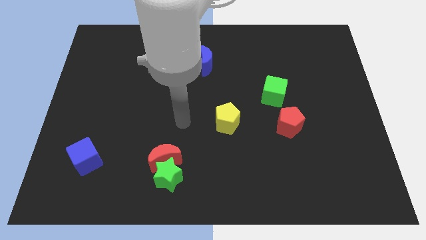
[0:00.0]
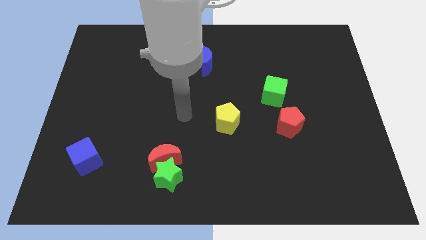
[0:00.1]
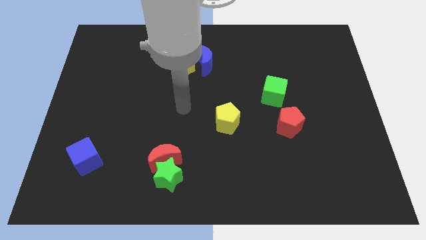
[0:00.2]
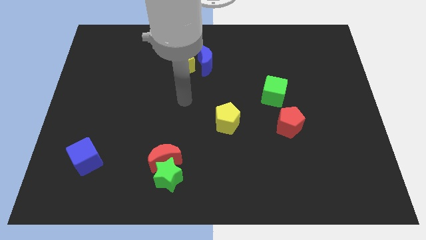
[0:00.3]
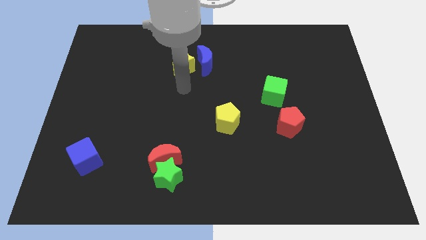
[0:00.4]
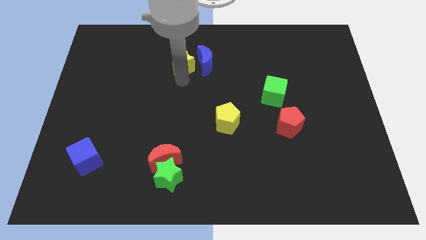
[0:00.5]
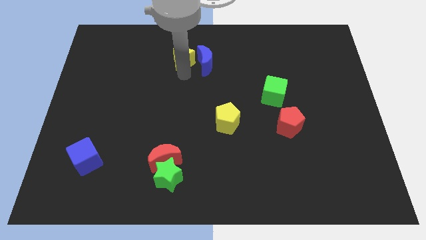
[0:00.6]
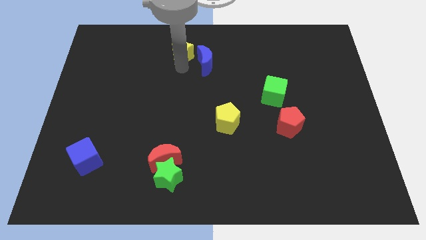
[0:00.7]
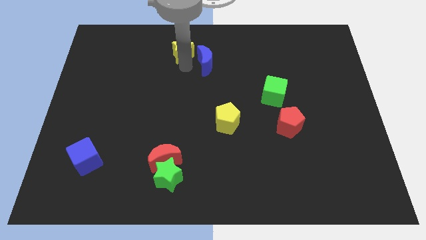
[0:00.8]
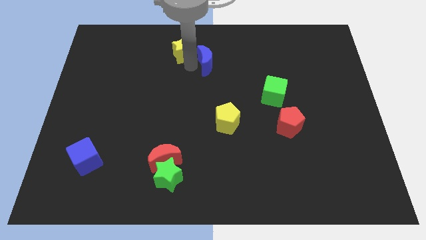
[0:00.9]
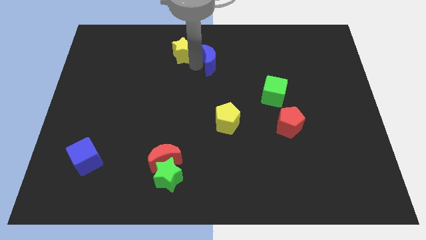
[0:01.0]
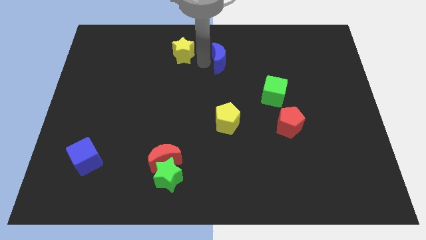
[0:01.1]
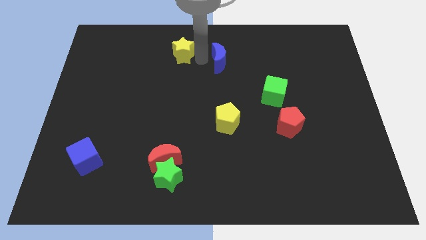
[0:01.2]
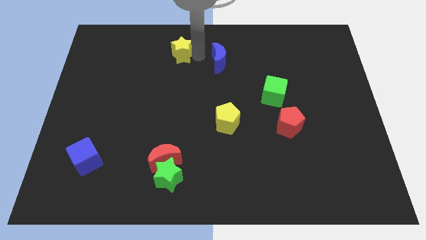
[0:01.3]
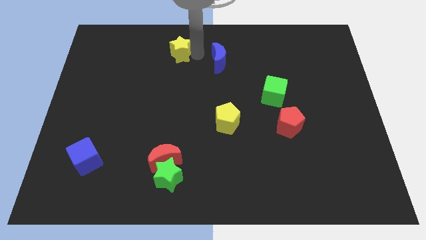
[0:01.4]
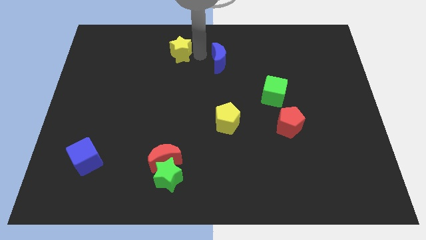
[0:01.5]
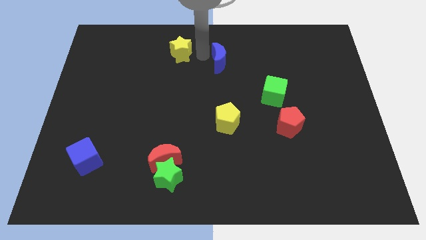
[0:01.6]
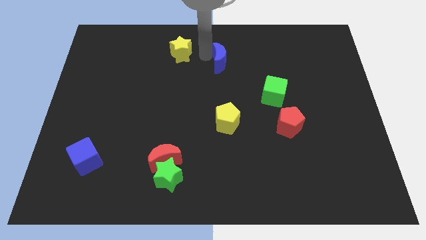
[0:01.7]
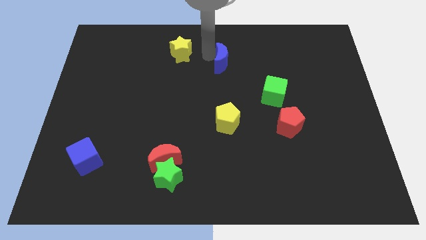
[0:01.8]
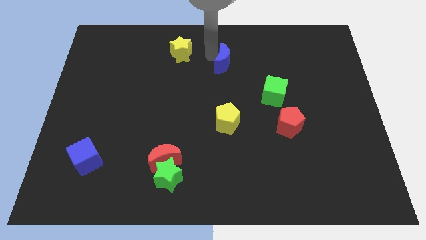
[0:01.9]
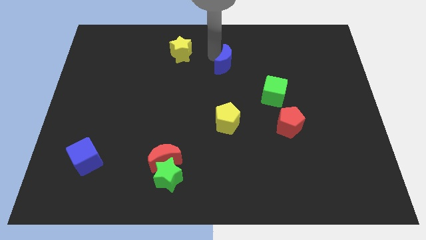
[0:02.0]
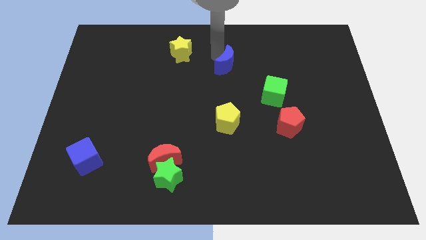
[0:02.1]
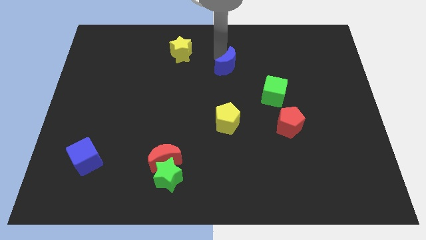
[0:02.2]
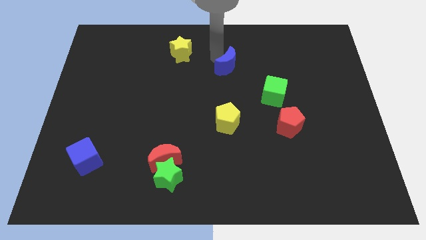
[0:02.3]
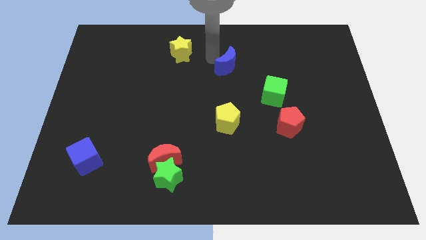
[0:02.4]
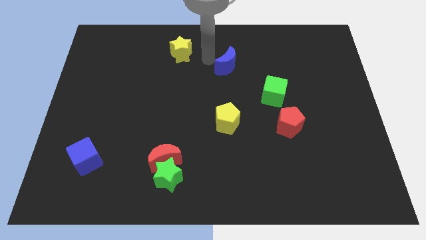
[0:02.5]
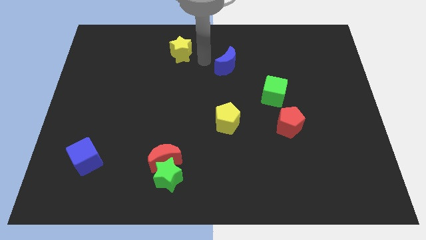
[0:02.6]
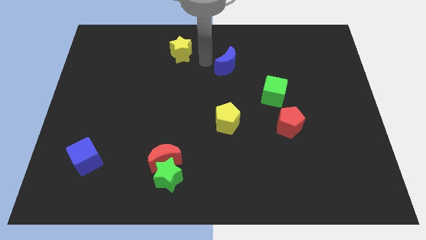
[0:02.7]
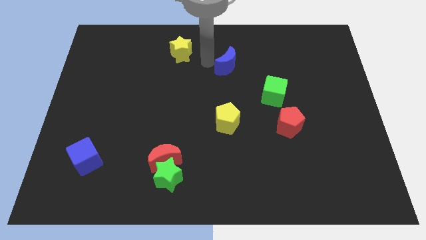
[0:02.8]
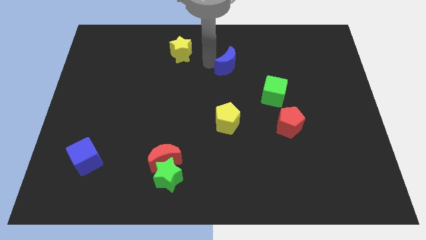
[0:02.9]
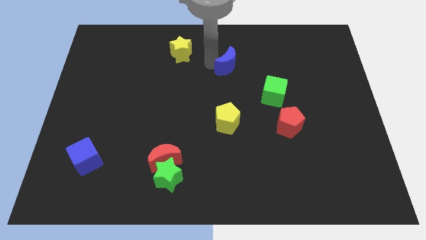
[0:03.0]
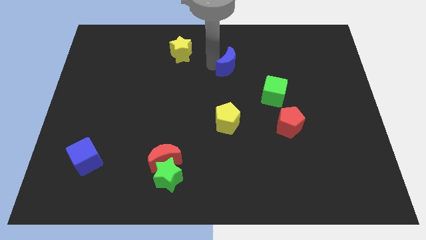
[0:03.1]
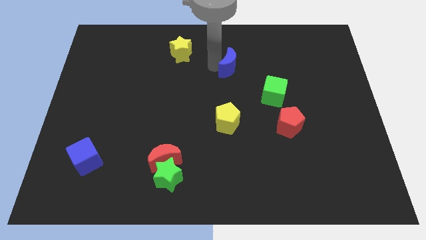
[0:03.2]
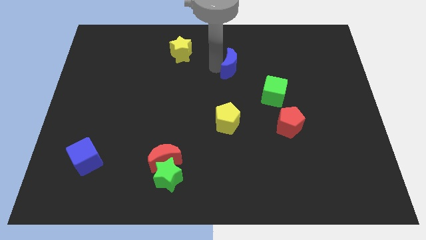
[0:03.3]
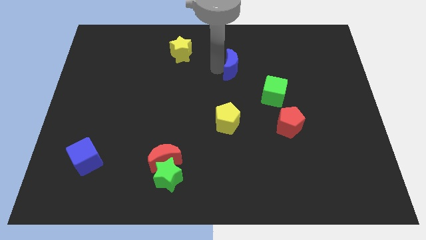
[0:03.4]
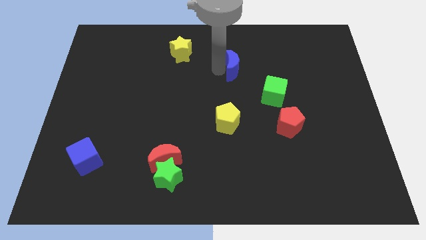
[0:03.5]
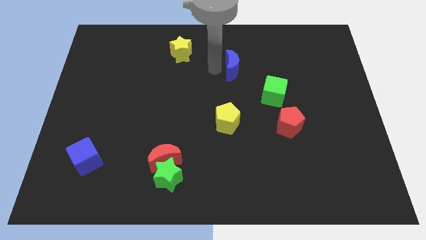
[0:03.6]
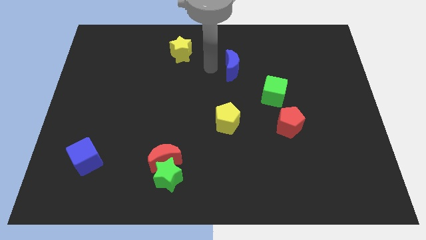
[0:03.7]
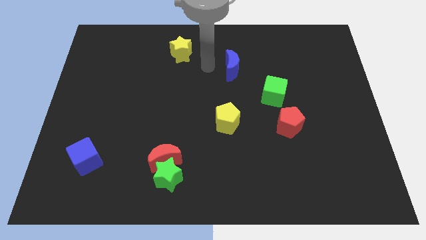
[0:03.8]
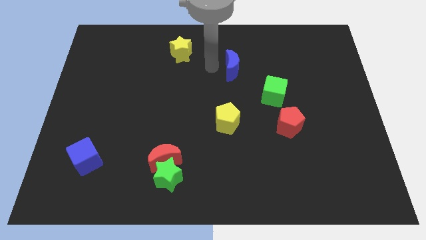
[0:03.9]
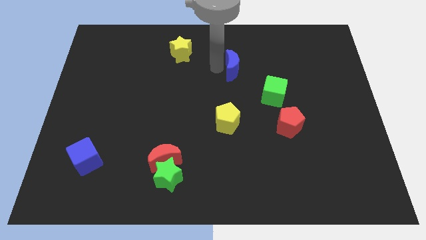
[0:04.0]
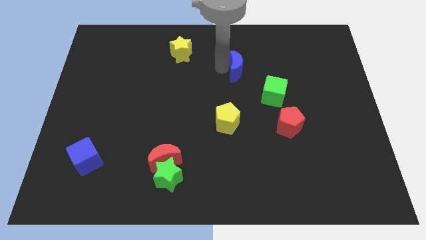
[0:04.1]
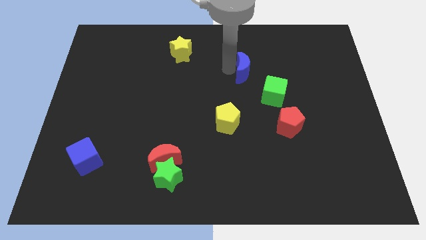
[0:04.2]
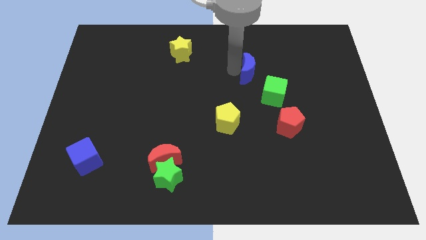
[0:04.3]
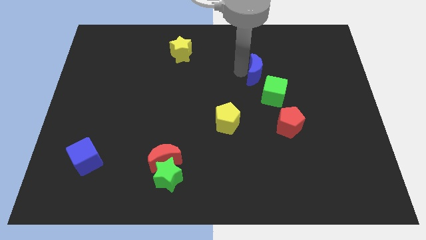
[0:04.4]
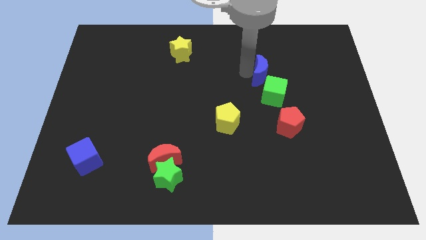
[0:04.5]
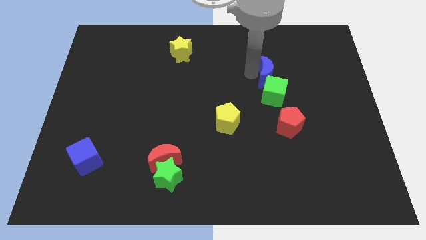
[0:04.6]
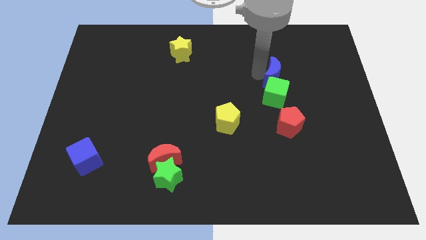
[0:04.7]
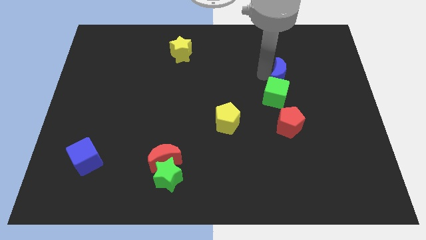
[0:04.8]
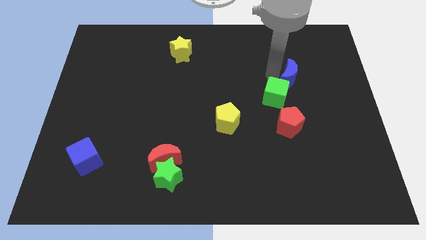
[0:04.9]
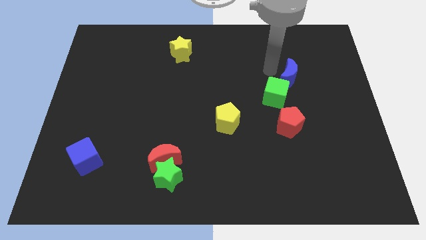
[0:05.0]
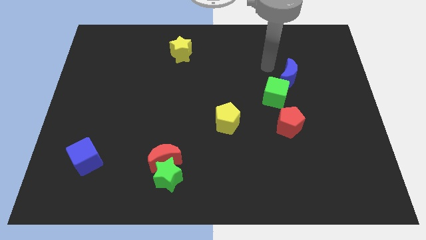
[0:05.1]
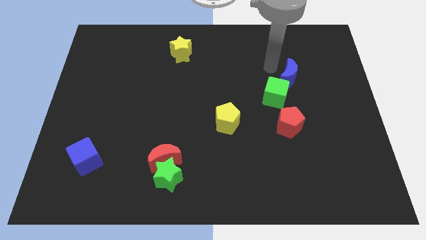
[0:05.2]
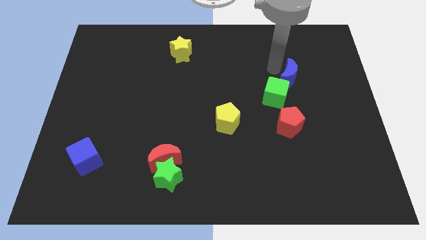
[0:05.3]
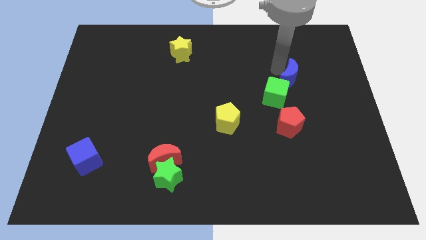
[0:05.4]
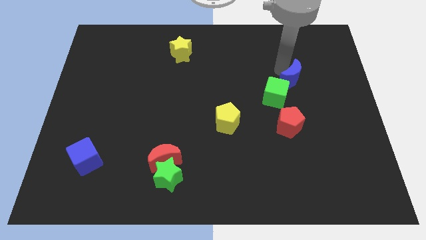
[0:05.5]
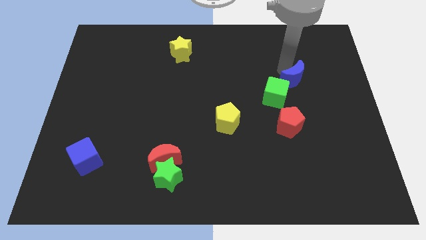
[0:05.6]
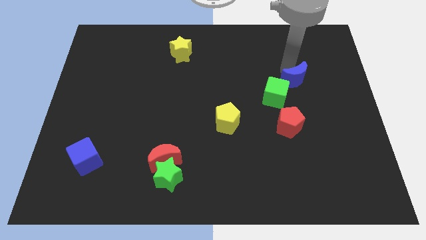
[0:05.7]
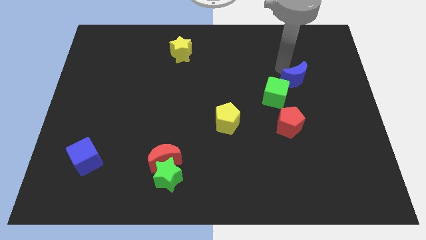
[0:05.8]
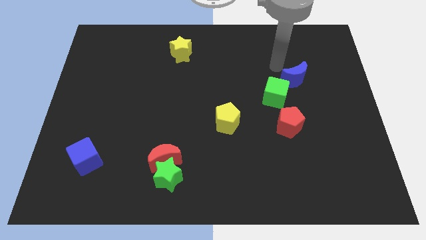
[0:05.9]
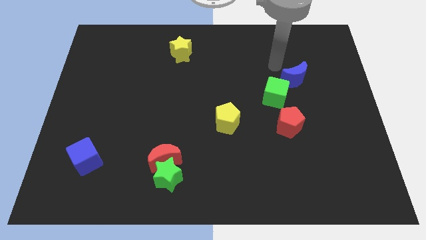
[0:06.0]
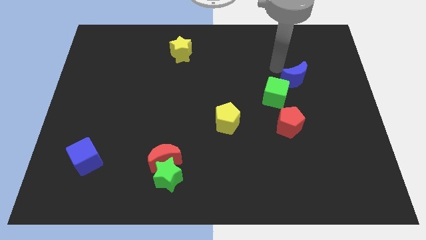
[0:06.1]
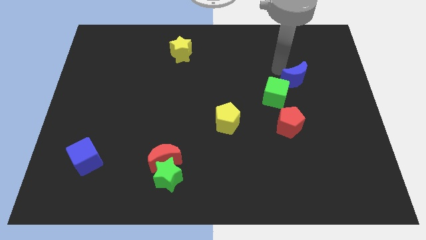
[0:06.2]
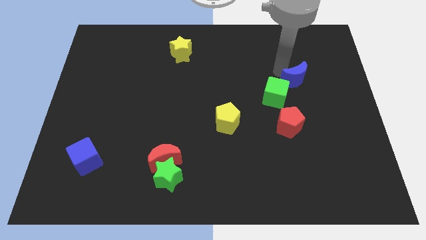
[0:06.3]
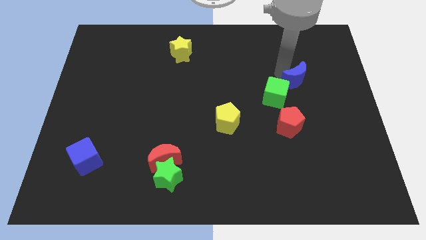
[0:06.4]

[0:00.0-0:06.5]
move the blue moon right of the green cube

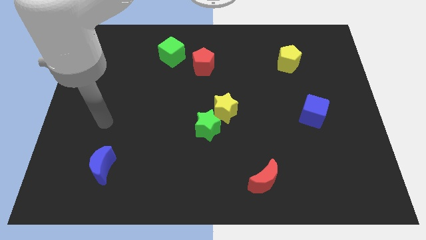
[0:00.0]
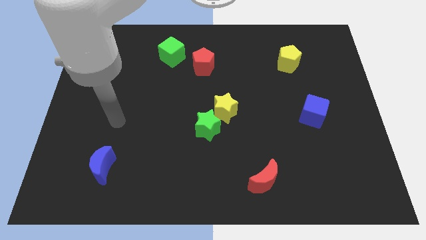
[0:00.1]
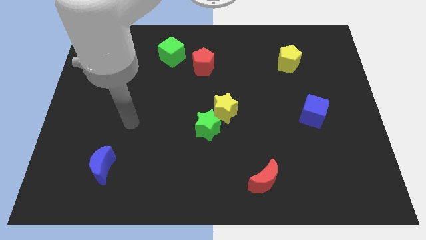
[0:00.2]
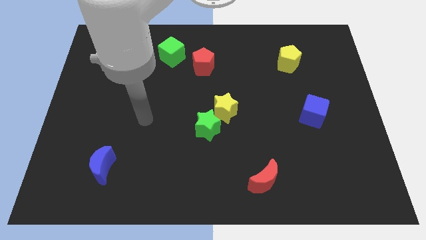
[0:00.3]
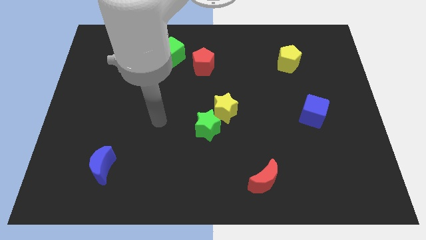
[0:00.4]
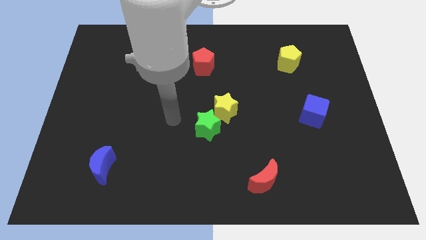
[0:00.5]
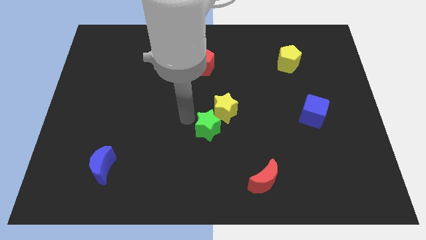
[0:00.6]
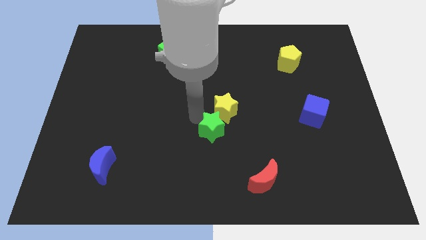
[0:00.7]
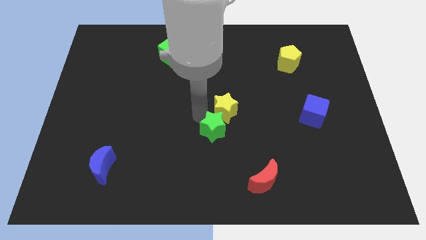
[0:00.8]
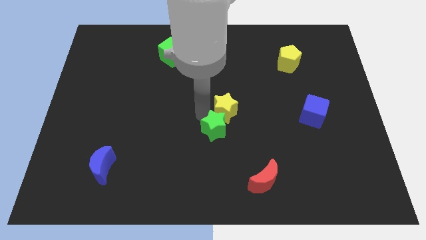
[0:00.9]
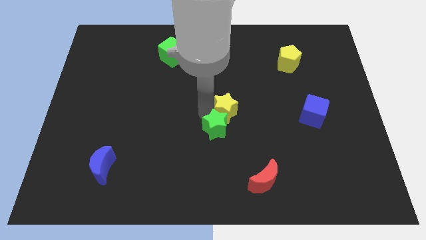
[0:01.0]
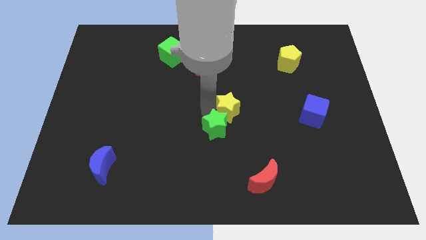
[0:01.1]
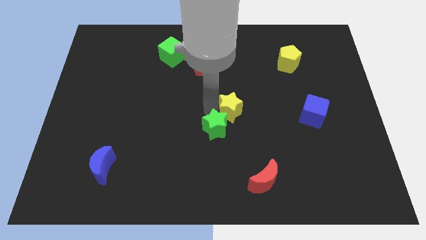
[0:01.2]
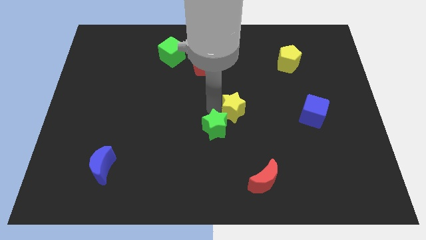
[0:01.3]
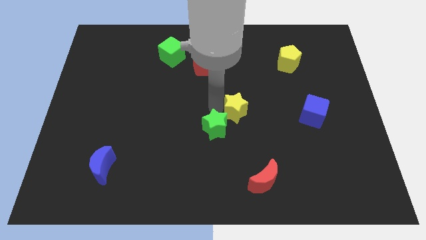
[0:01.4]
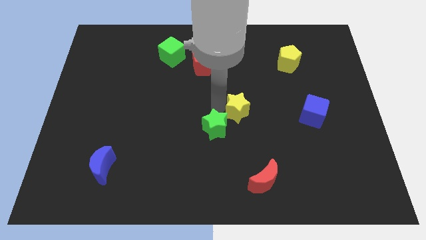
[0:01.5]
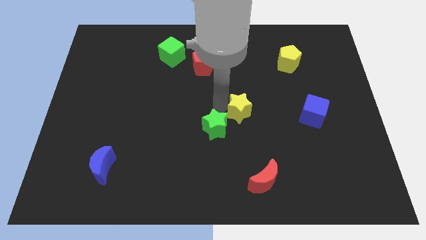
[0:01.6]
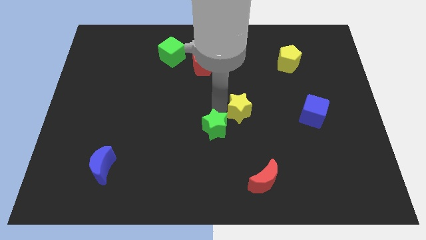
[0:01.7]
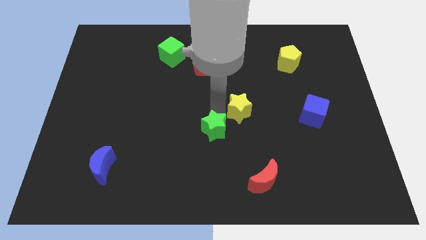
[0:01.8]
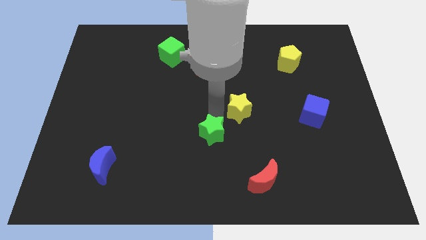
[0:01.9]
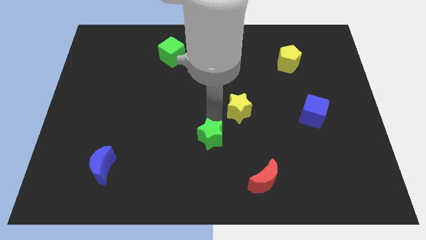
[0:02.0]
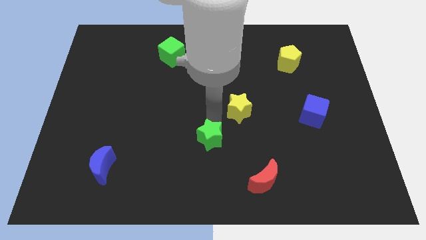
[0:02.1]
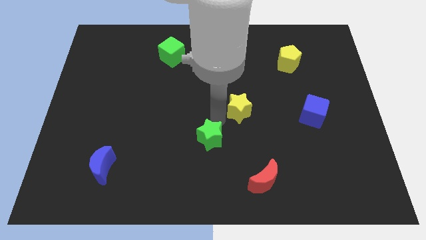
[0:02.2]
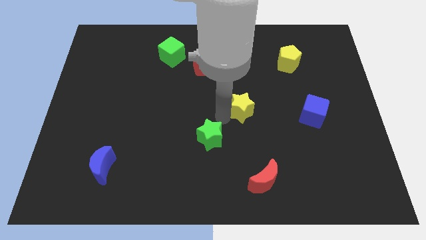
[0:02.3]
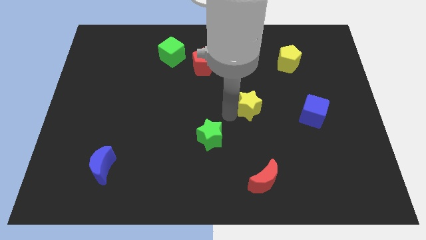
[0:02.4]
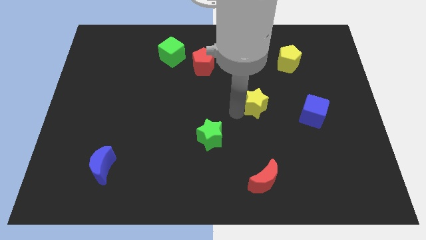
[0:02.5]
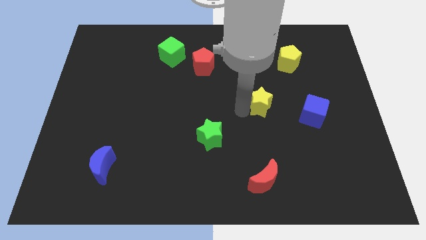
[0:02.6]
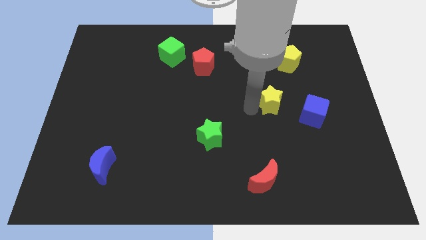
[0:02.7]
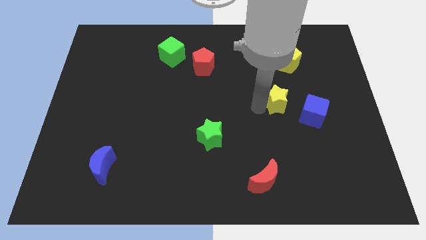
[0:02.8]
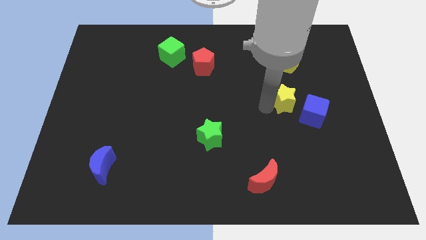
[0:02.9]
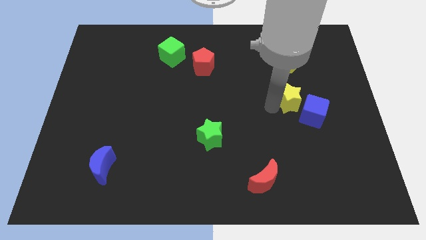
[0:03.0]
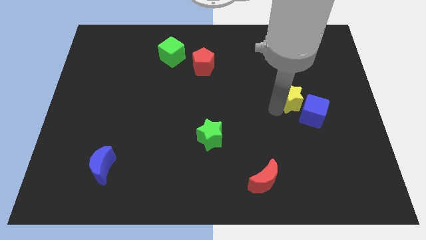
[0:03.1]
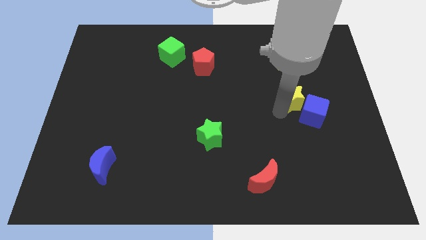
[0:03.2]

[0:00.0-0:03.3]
put the yellow star above the blue cube
